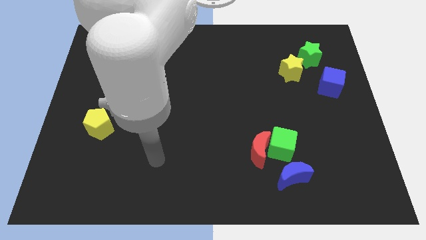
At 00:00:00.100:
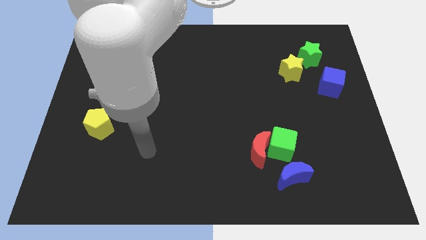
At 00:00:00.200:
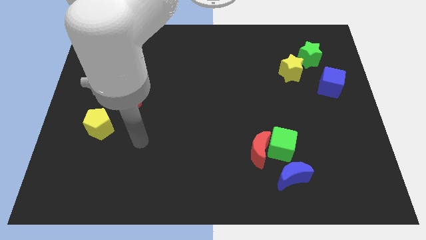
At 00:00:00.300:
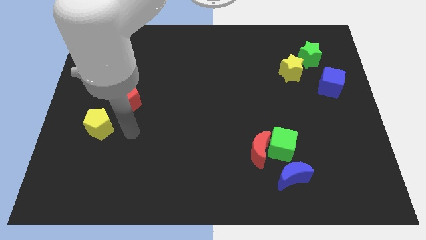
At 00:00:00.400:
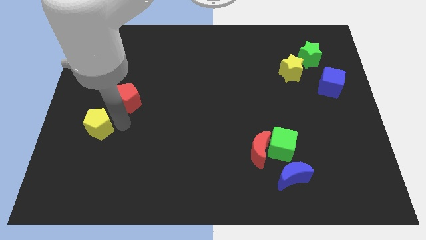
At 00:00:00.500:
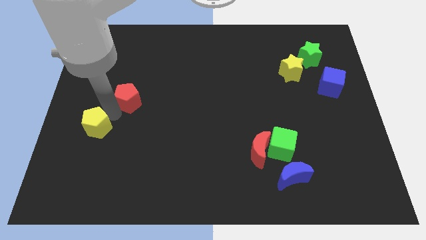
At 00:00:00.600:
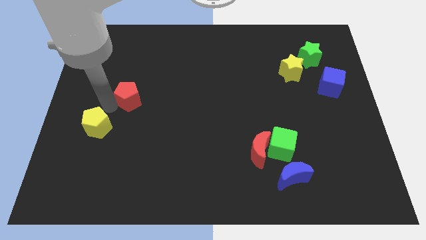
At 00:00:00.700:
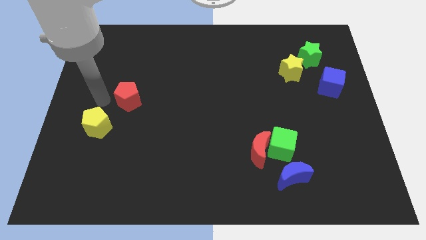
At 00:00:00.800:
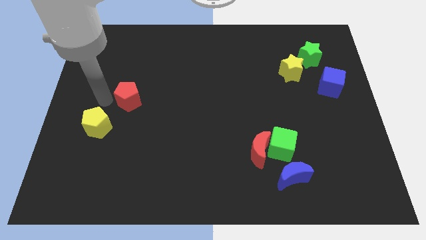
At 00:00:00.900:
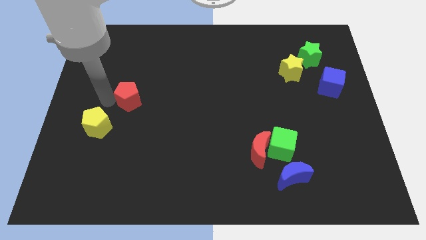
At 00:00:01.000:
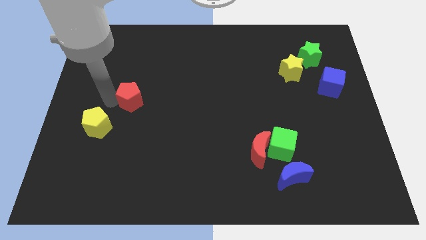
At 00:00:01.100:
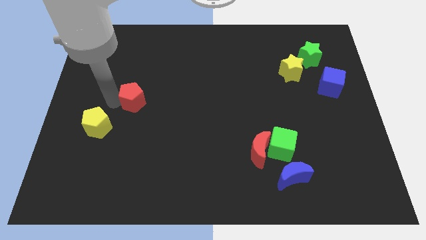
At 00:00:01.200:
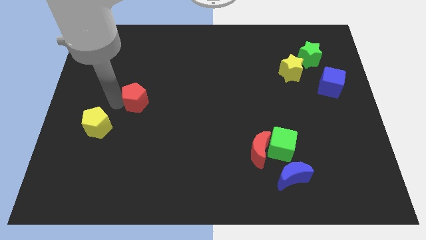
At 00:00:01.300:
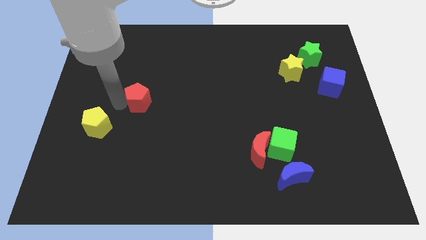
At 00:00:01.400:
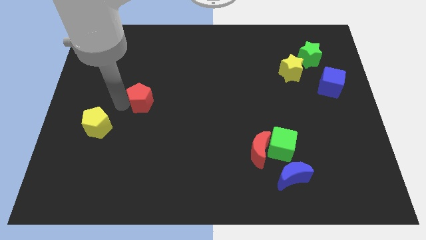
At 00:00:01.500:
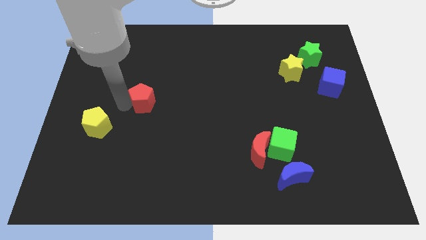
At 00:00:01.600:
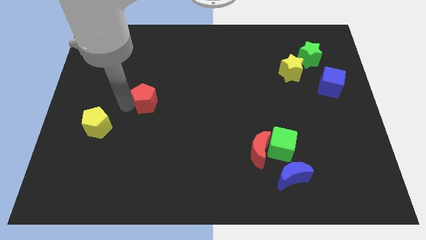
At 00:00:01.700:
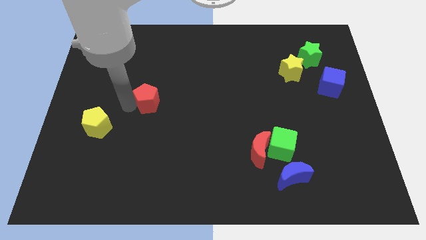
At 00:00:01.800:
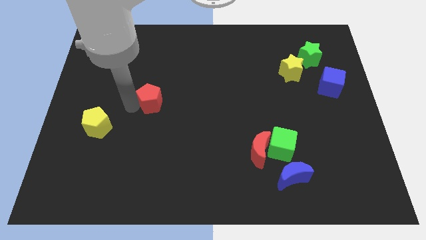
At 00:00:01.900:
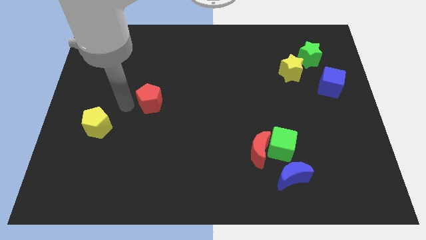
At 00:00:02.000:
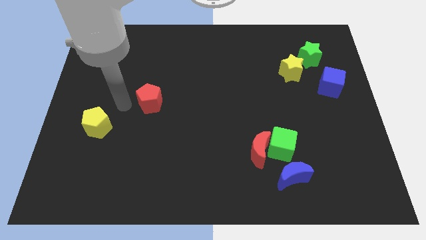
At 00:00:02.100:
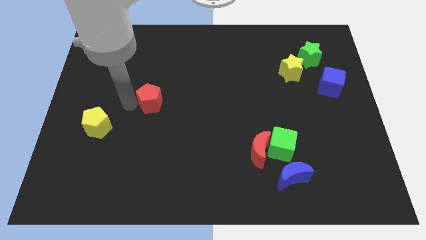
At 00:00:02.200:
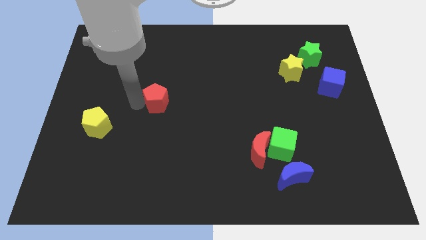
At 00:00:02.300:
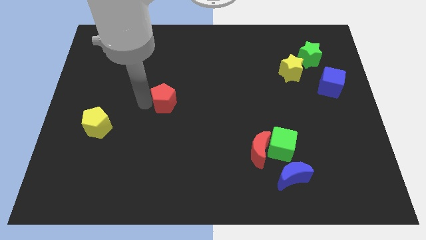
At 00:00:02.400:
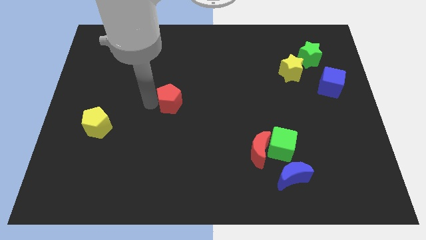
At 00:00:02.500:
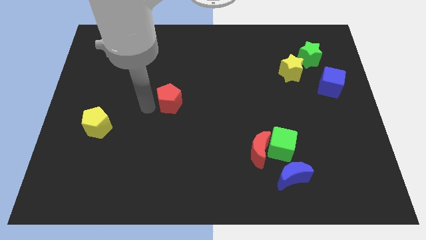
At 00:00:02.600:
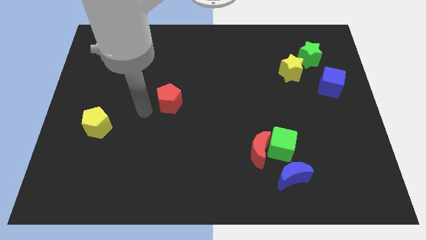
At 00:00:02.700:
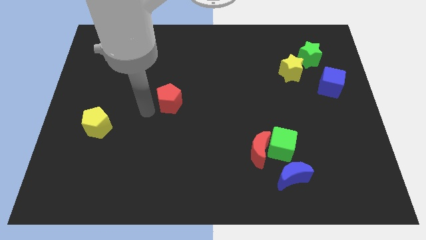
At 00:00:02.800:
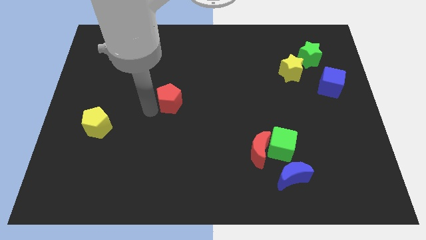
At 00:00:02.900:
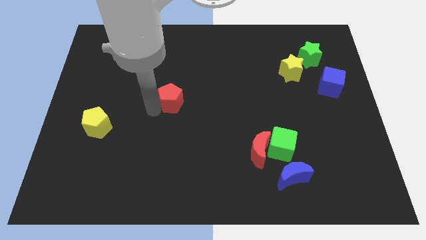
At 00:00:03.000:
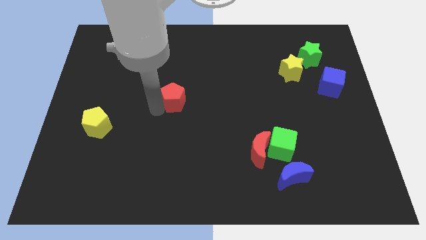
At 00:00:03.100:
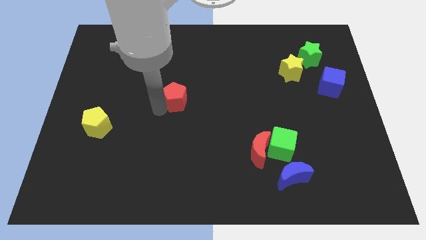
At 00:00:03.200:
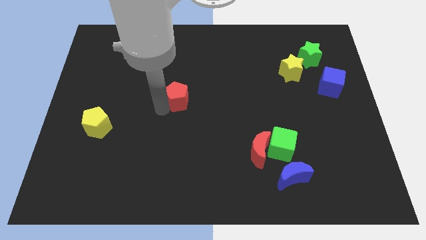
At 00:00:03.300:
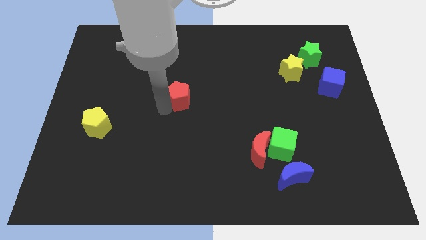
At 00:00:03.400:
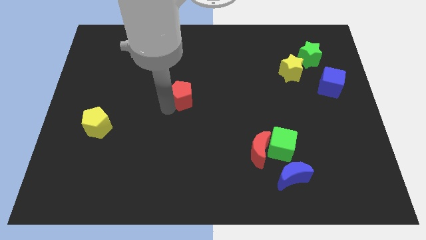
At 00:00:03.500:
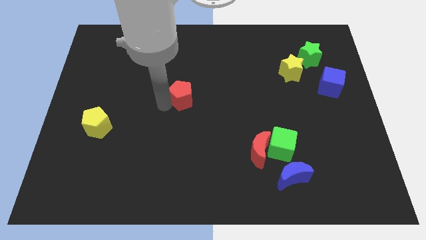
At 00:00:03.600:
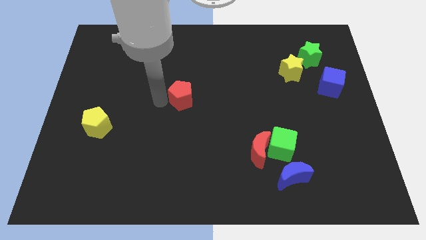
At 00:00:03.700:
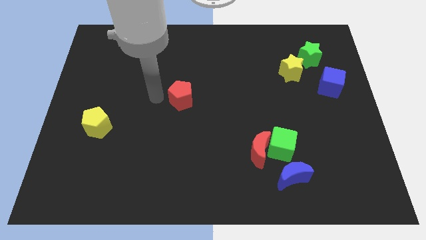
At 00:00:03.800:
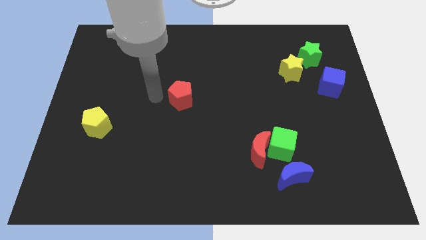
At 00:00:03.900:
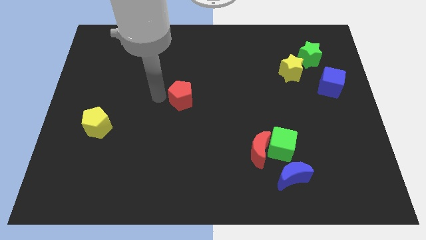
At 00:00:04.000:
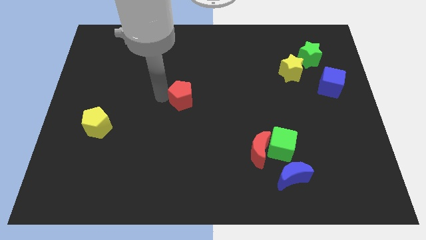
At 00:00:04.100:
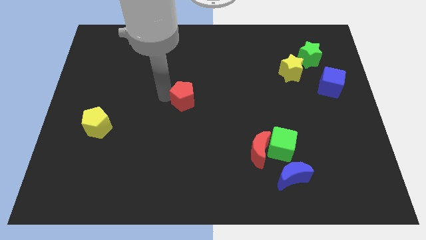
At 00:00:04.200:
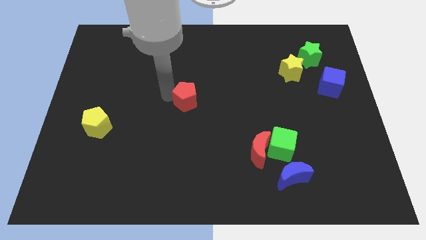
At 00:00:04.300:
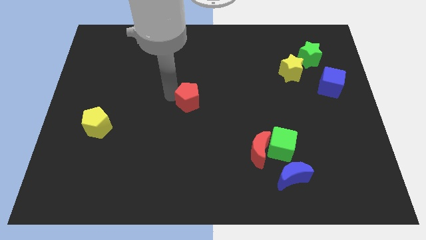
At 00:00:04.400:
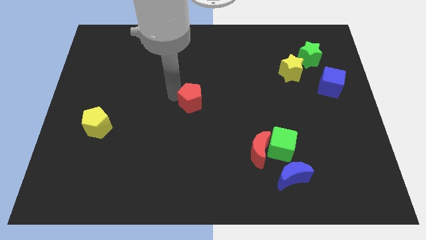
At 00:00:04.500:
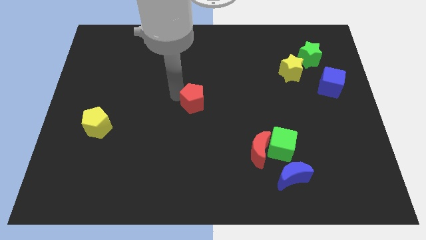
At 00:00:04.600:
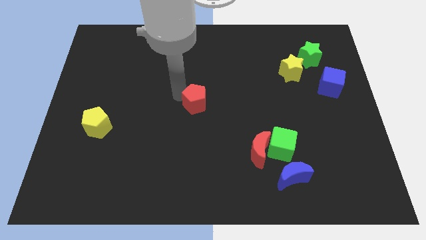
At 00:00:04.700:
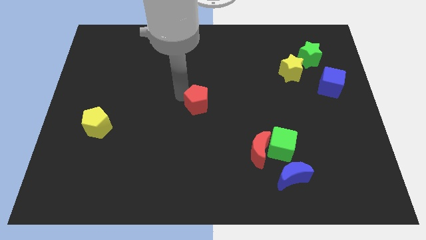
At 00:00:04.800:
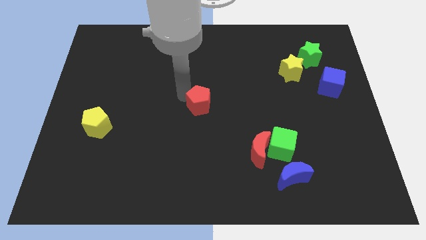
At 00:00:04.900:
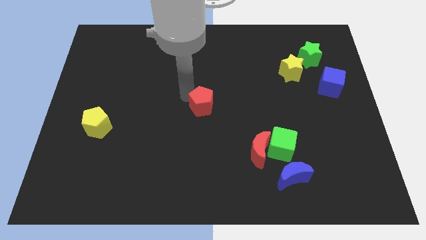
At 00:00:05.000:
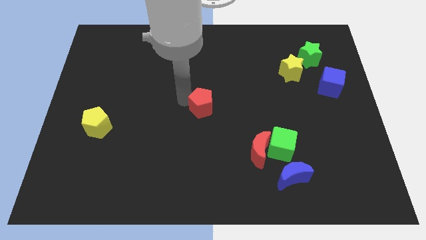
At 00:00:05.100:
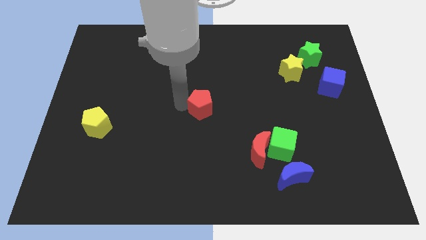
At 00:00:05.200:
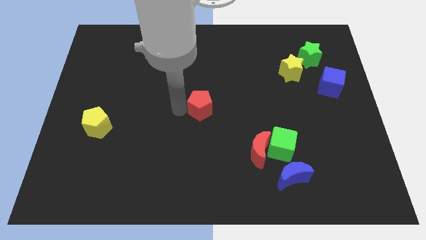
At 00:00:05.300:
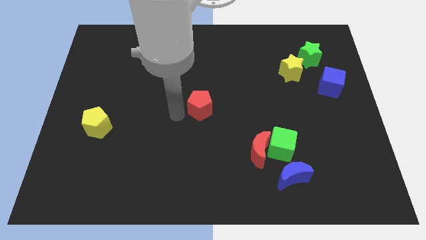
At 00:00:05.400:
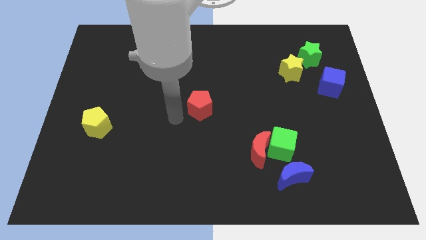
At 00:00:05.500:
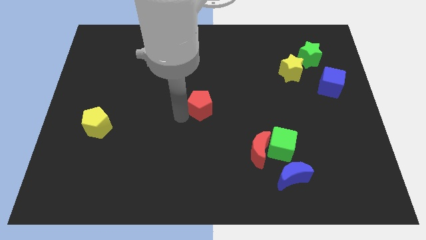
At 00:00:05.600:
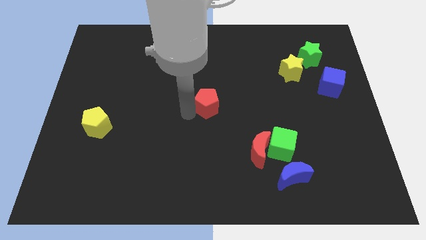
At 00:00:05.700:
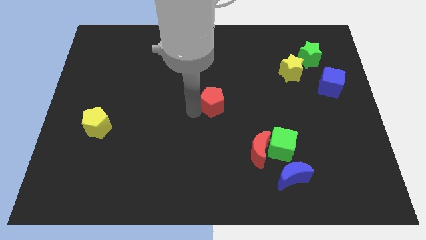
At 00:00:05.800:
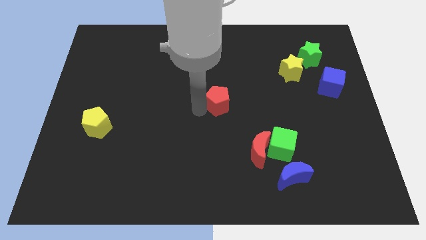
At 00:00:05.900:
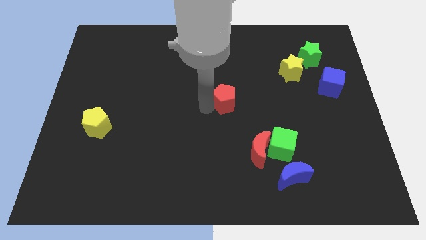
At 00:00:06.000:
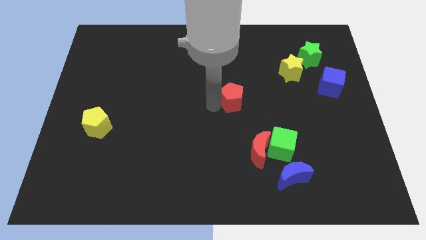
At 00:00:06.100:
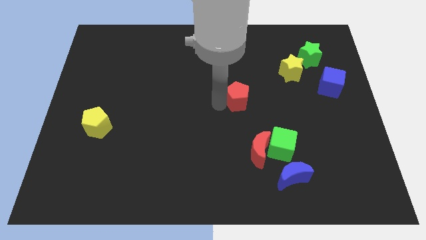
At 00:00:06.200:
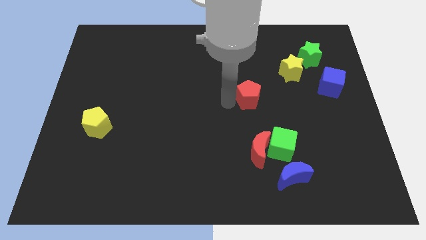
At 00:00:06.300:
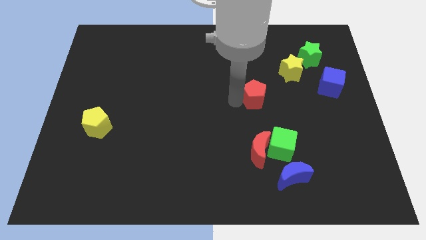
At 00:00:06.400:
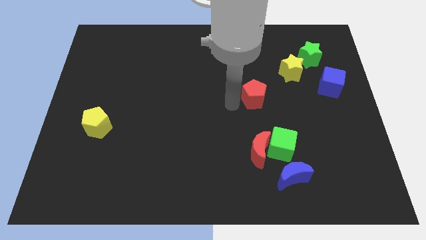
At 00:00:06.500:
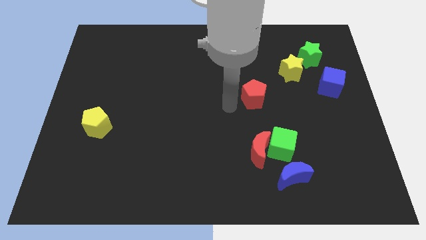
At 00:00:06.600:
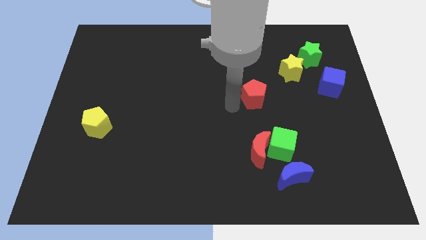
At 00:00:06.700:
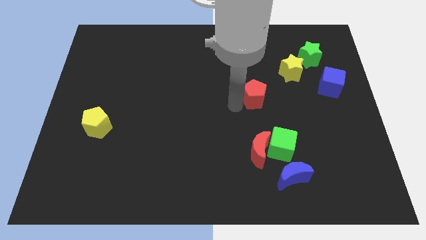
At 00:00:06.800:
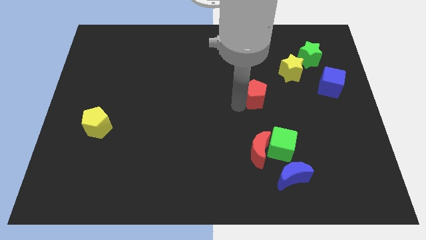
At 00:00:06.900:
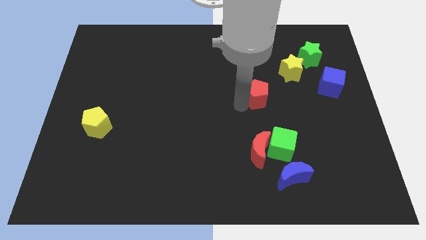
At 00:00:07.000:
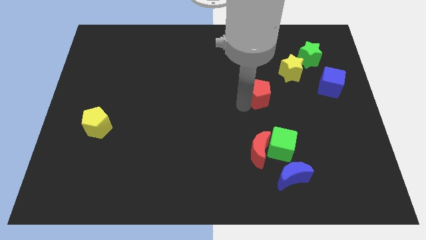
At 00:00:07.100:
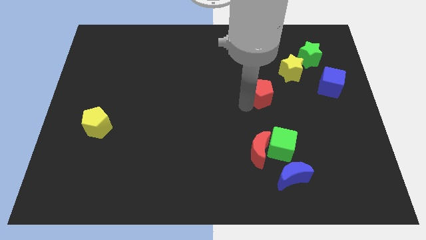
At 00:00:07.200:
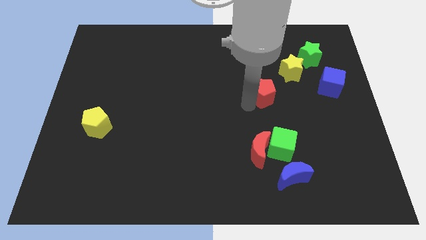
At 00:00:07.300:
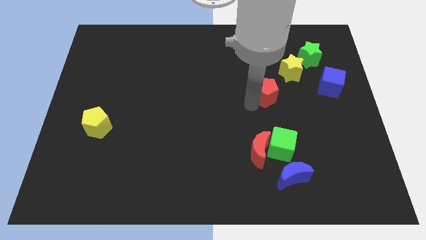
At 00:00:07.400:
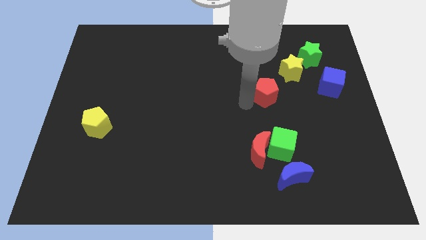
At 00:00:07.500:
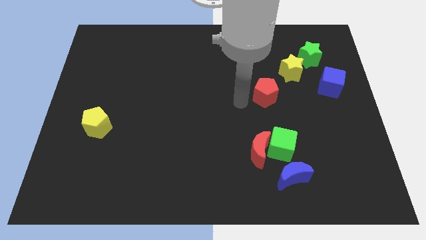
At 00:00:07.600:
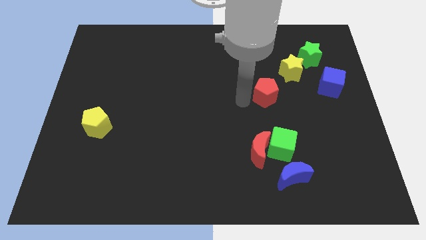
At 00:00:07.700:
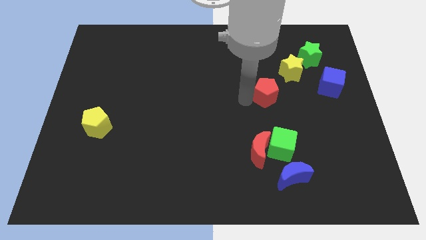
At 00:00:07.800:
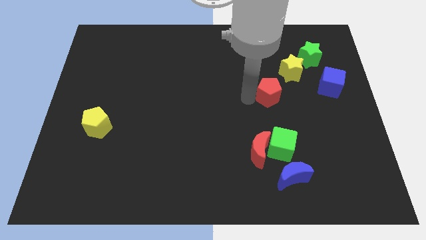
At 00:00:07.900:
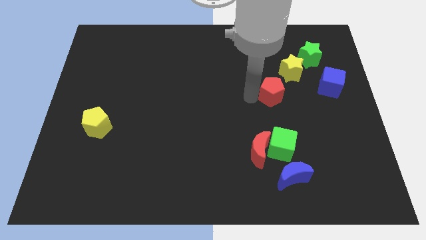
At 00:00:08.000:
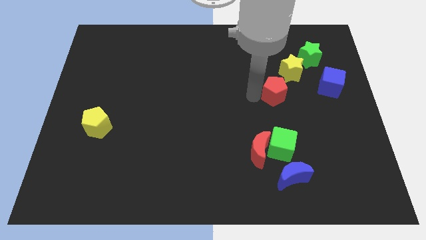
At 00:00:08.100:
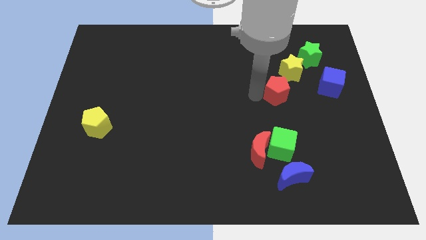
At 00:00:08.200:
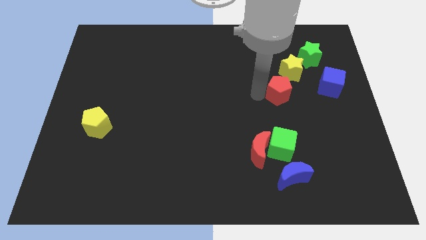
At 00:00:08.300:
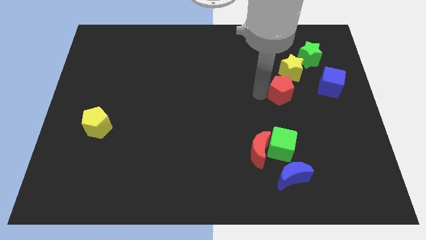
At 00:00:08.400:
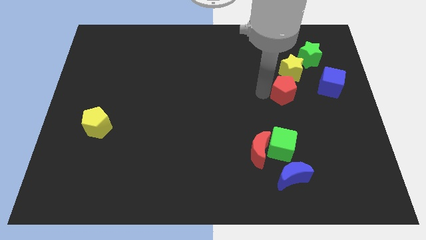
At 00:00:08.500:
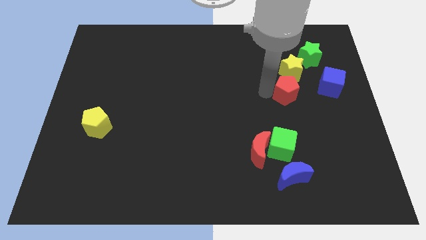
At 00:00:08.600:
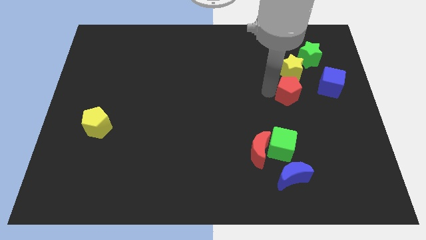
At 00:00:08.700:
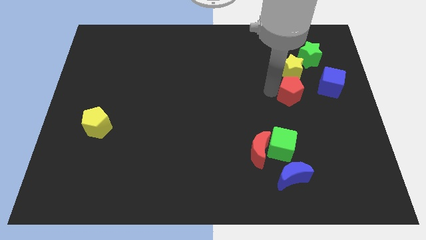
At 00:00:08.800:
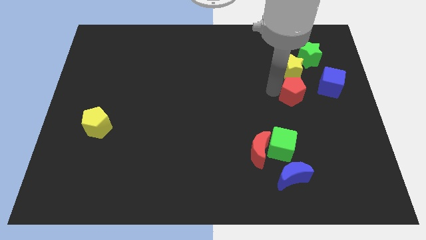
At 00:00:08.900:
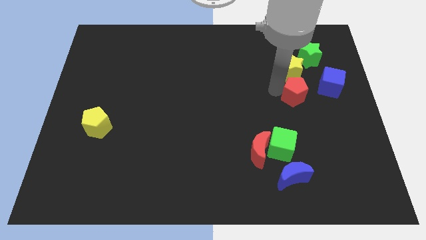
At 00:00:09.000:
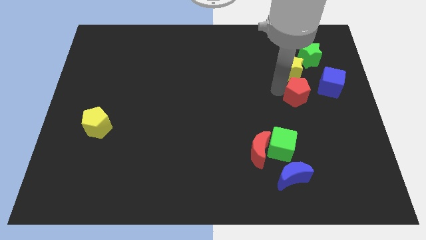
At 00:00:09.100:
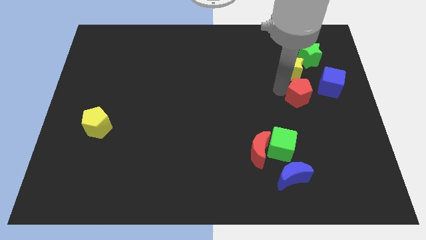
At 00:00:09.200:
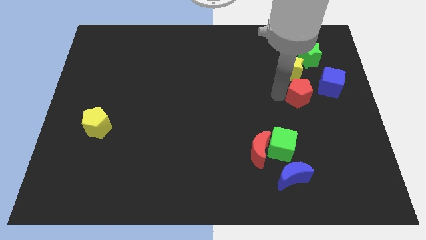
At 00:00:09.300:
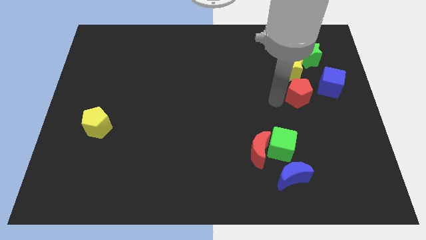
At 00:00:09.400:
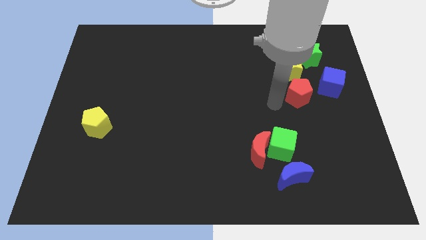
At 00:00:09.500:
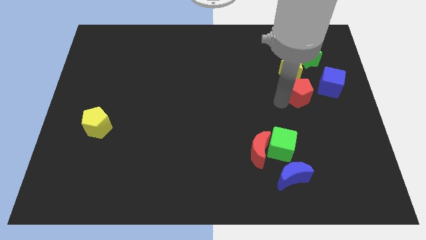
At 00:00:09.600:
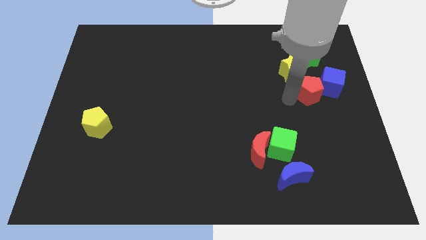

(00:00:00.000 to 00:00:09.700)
push the red pentagon close to the blue cube
